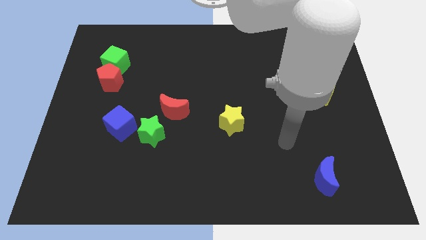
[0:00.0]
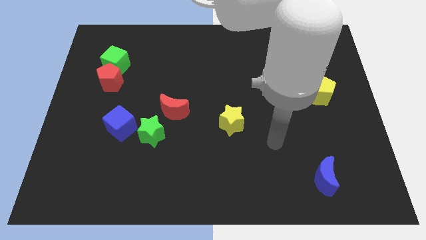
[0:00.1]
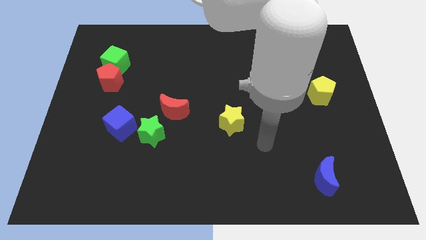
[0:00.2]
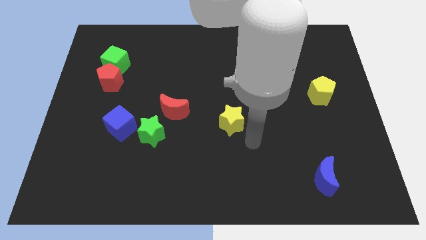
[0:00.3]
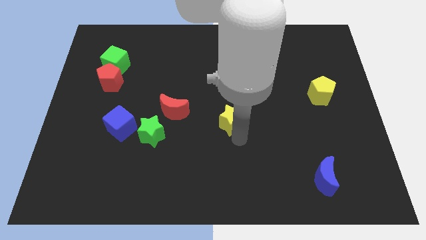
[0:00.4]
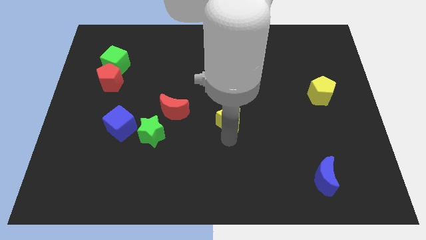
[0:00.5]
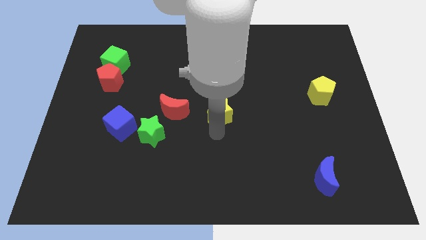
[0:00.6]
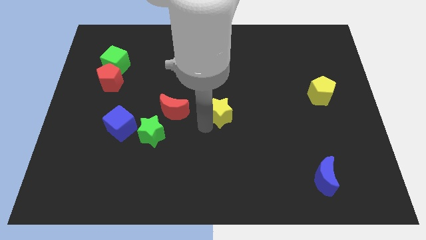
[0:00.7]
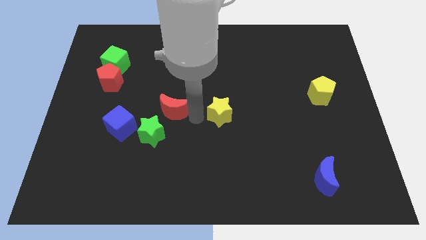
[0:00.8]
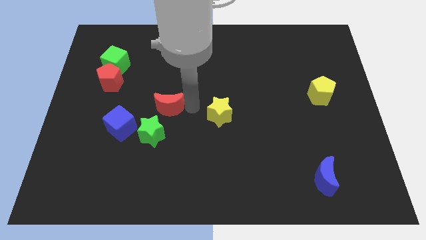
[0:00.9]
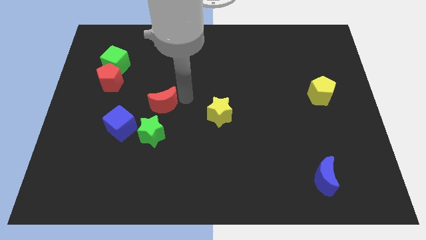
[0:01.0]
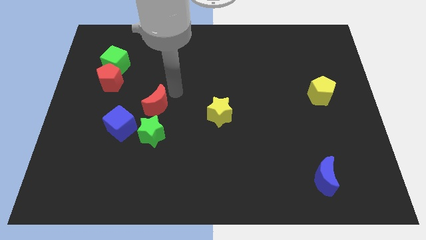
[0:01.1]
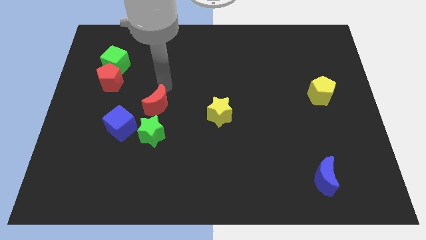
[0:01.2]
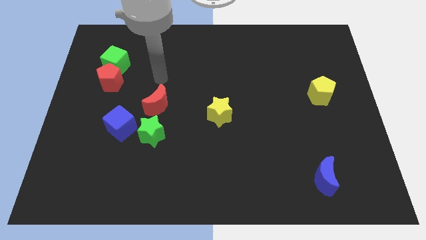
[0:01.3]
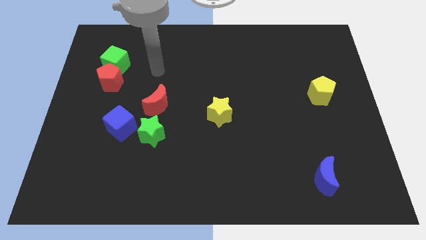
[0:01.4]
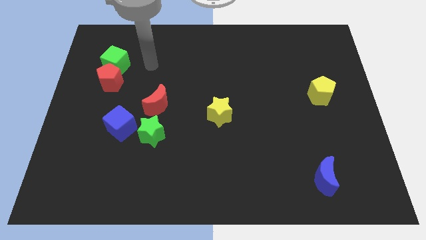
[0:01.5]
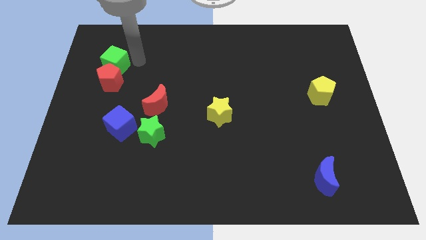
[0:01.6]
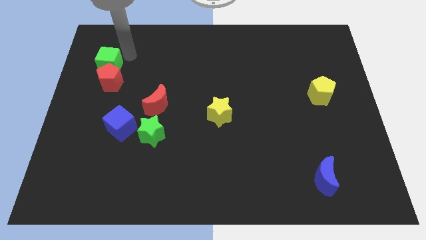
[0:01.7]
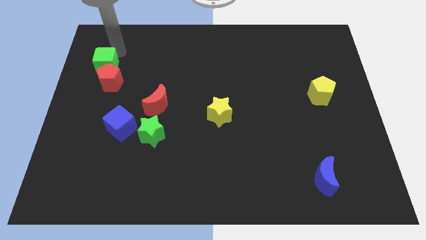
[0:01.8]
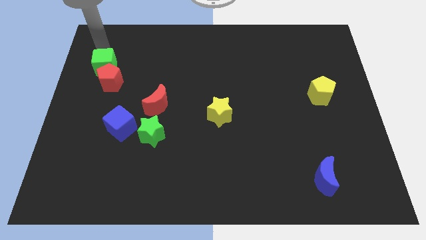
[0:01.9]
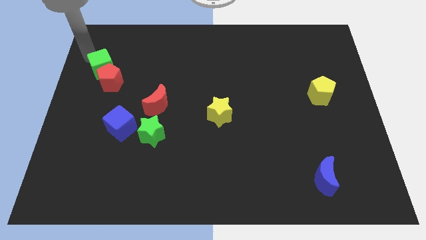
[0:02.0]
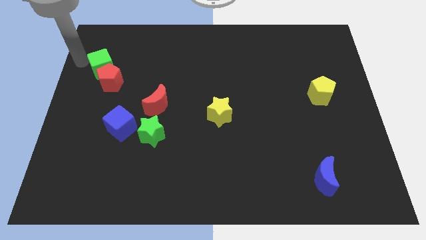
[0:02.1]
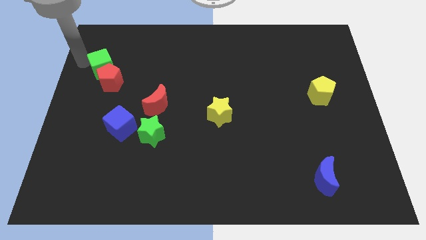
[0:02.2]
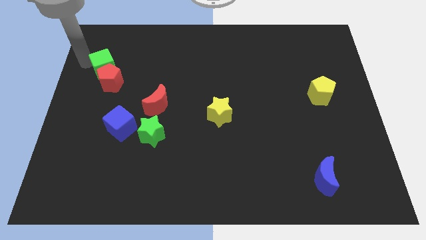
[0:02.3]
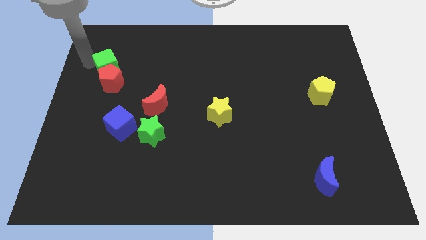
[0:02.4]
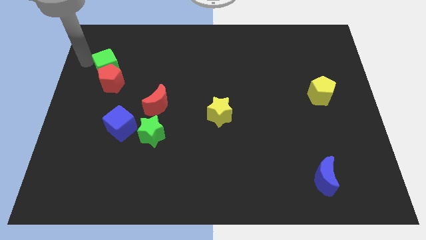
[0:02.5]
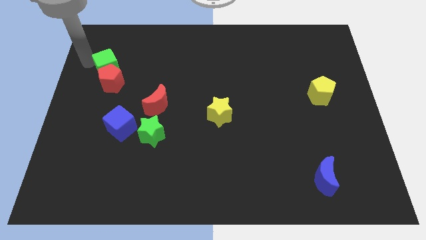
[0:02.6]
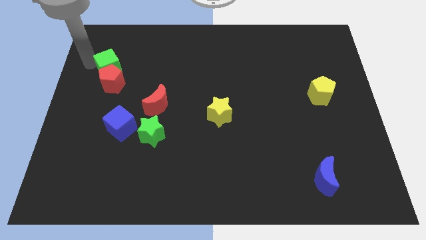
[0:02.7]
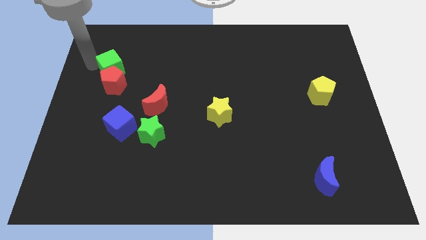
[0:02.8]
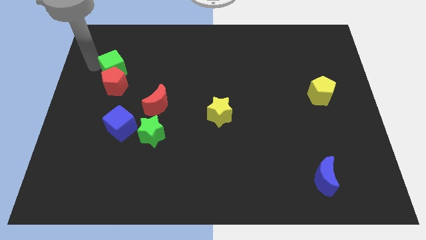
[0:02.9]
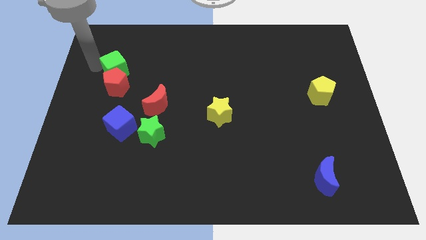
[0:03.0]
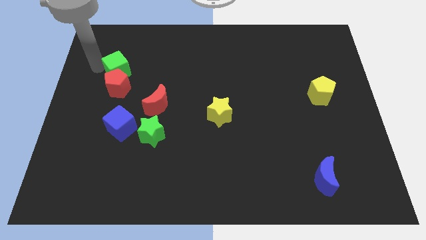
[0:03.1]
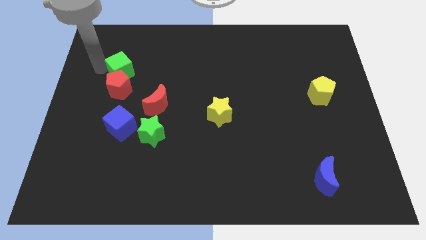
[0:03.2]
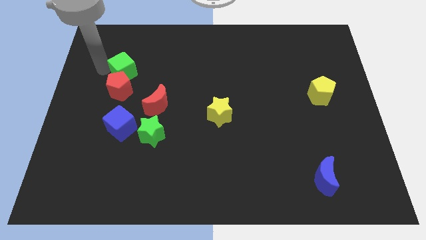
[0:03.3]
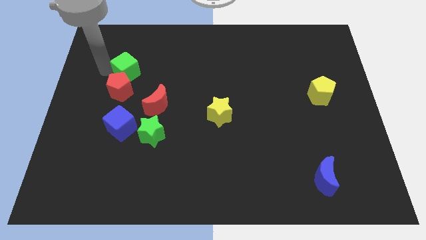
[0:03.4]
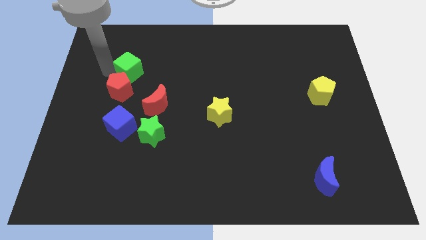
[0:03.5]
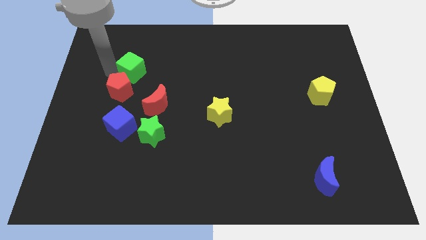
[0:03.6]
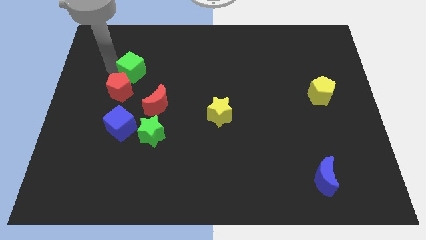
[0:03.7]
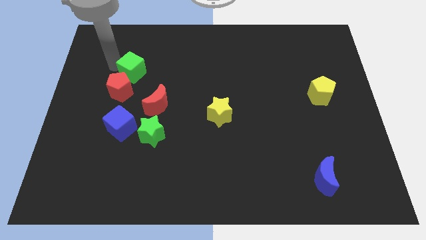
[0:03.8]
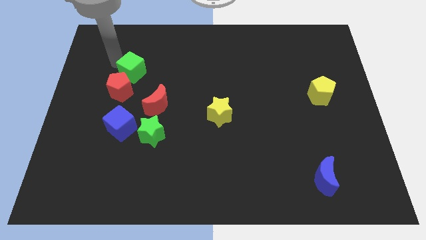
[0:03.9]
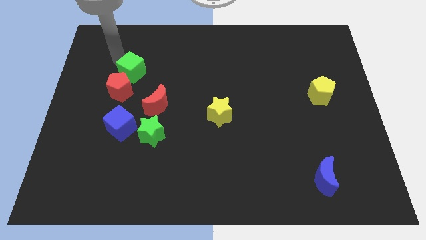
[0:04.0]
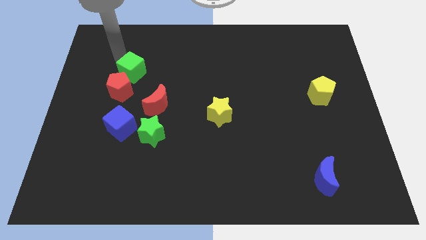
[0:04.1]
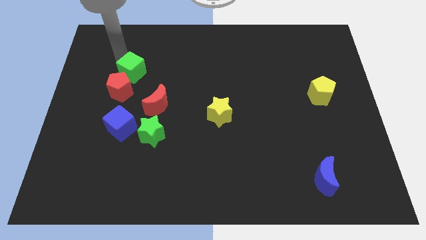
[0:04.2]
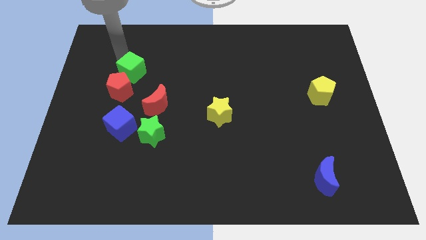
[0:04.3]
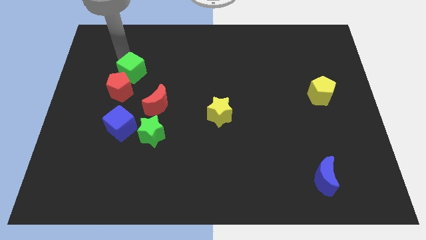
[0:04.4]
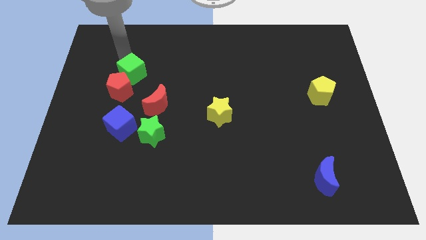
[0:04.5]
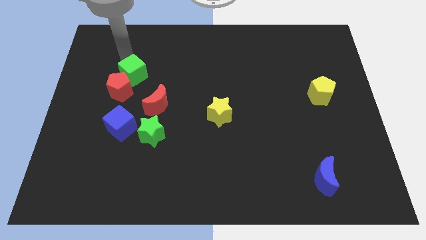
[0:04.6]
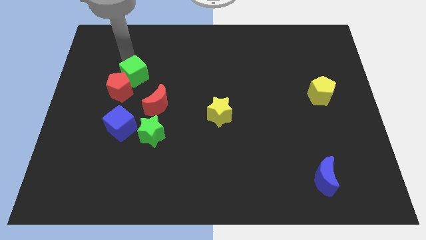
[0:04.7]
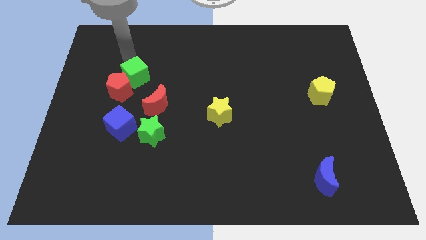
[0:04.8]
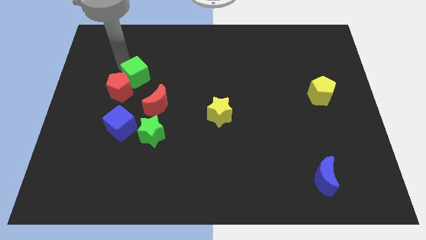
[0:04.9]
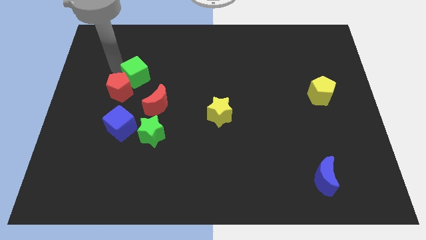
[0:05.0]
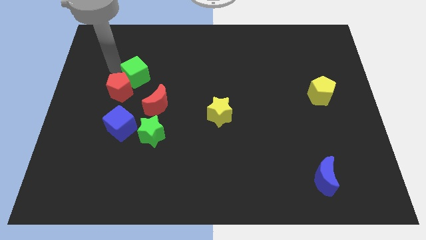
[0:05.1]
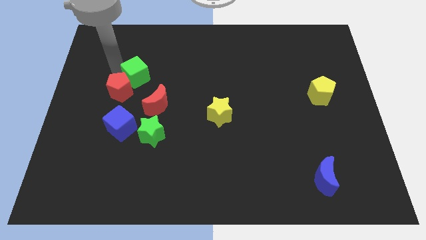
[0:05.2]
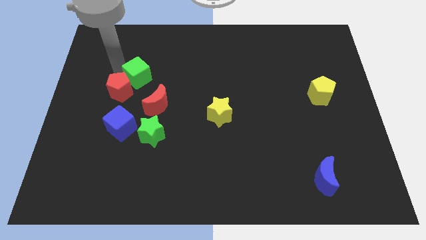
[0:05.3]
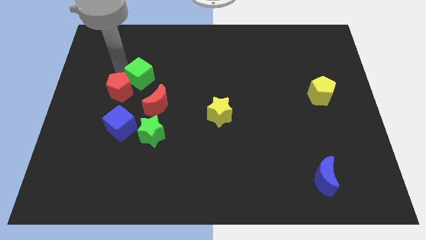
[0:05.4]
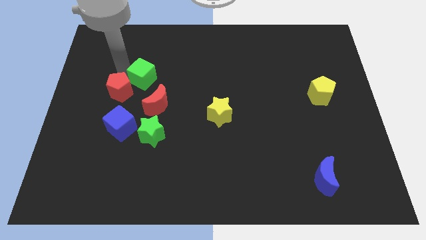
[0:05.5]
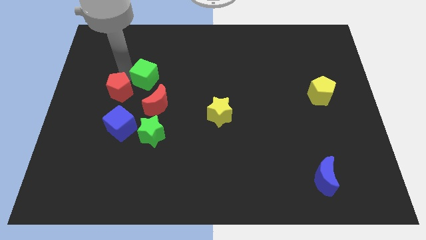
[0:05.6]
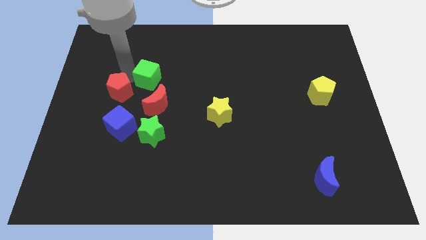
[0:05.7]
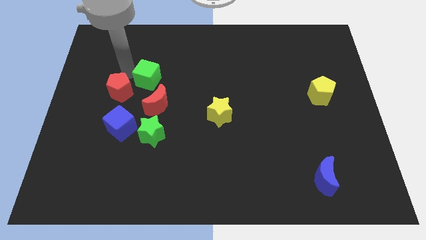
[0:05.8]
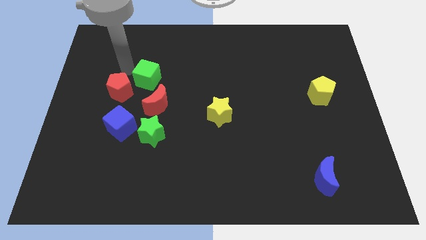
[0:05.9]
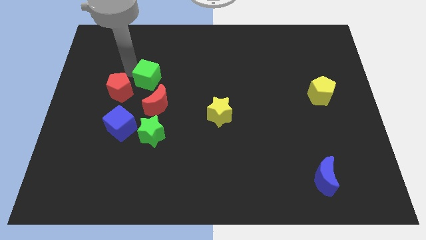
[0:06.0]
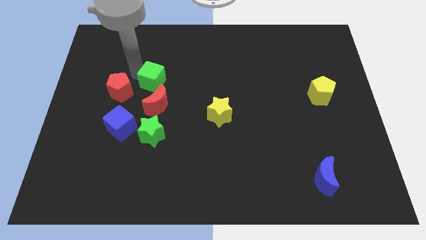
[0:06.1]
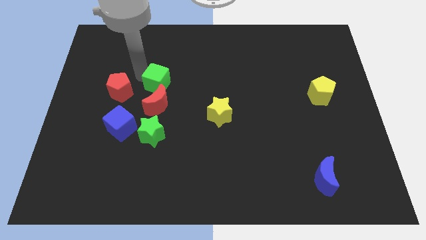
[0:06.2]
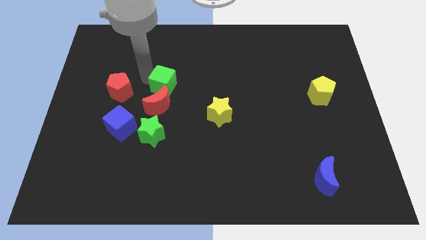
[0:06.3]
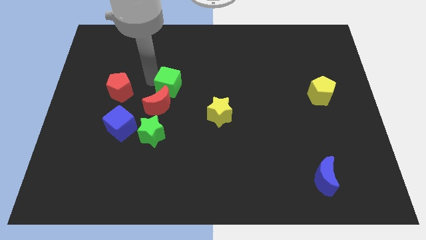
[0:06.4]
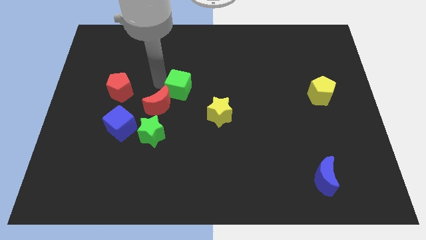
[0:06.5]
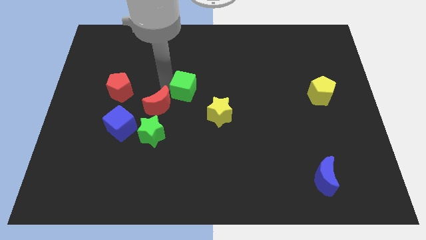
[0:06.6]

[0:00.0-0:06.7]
move the green cube to the right side of the red moon

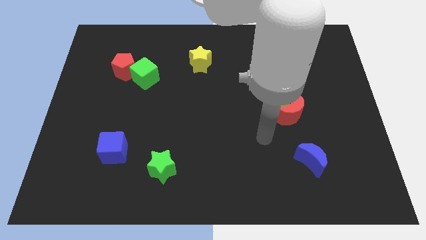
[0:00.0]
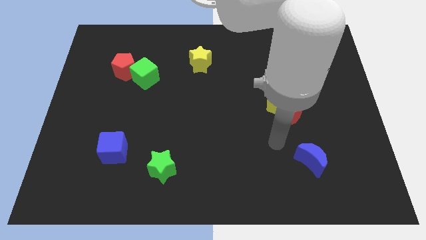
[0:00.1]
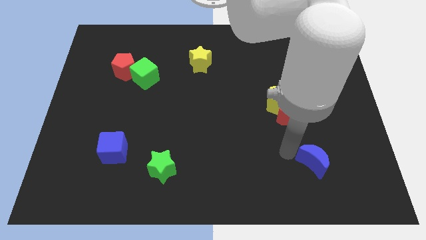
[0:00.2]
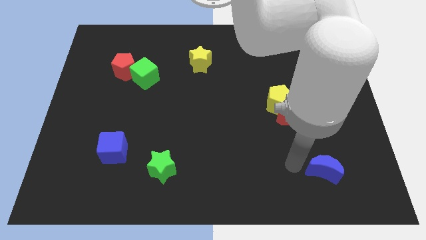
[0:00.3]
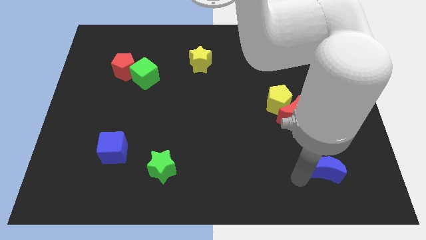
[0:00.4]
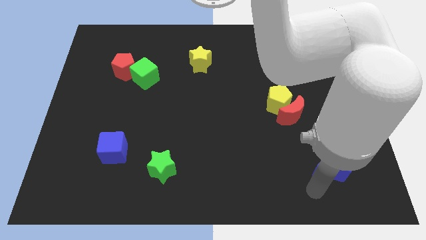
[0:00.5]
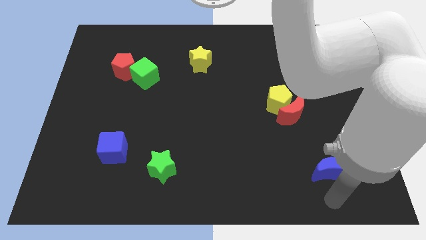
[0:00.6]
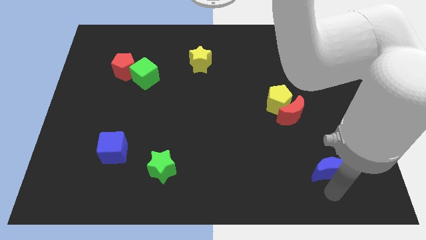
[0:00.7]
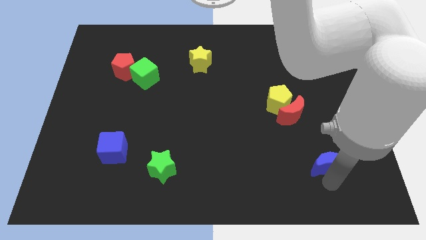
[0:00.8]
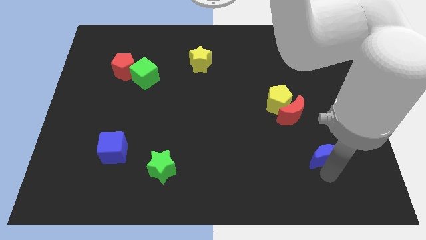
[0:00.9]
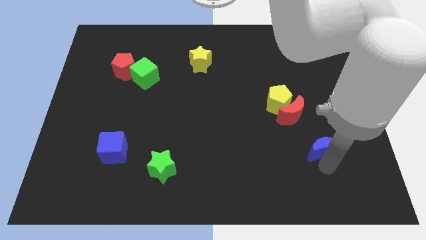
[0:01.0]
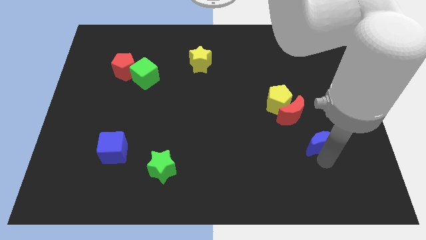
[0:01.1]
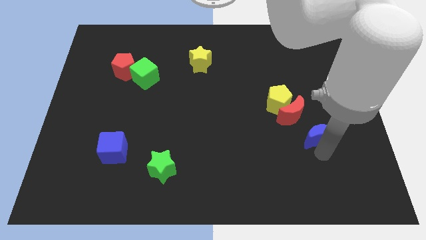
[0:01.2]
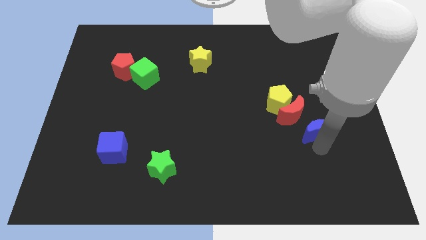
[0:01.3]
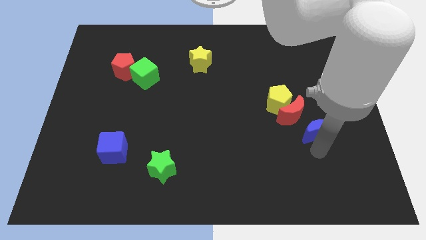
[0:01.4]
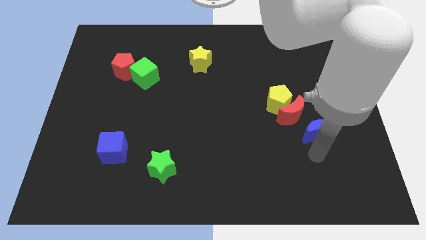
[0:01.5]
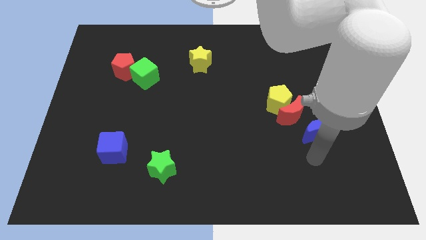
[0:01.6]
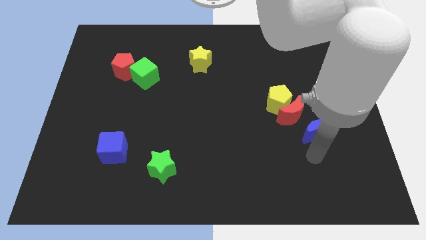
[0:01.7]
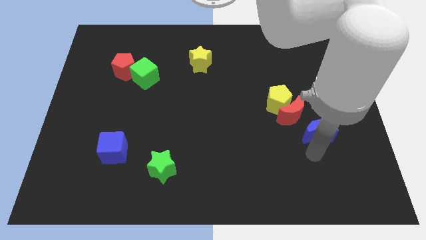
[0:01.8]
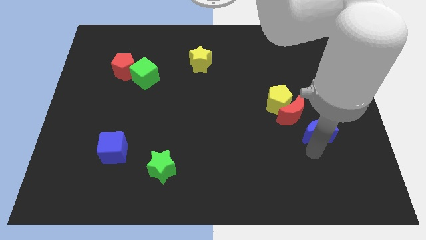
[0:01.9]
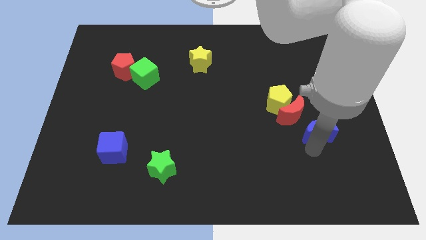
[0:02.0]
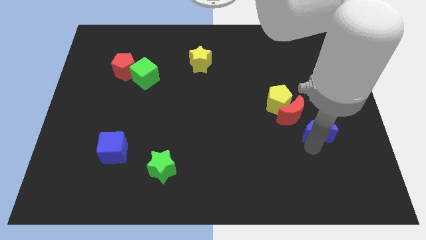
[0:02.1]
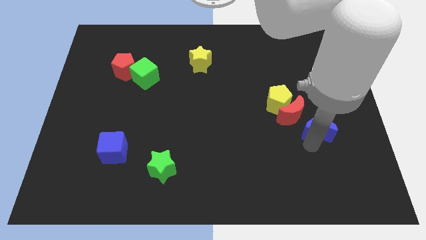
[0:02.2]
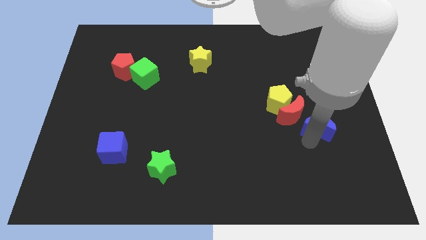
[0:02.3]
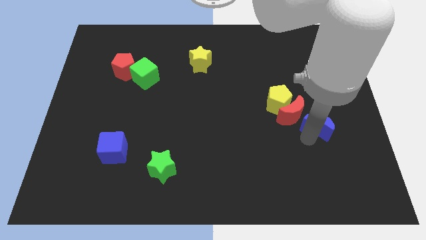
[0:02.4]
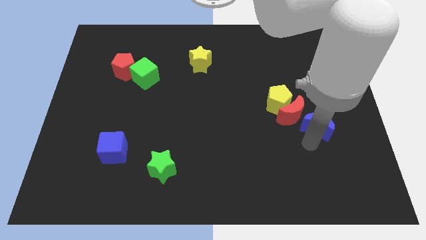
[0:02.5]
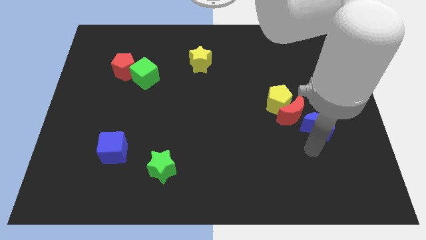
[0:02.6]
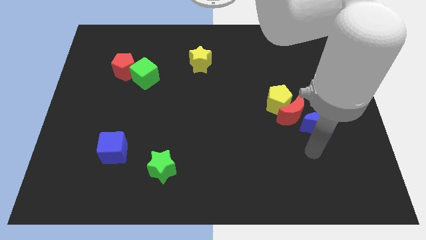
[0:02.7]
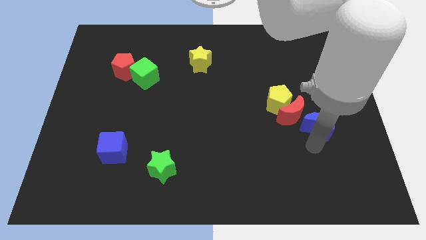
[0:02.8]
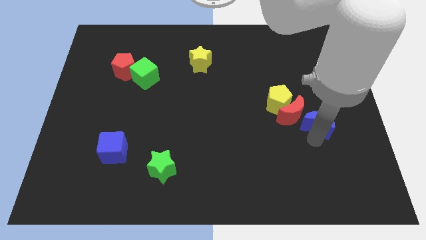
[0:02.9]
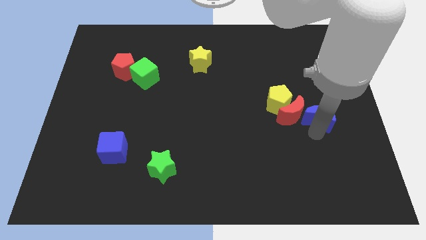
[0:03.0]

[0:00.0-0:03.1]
put the blue moon to the right of the yellow pentagon
